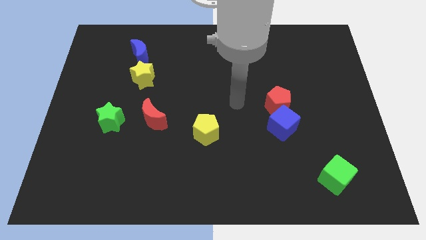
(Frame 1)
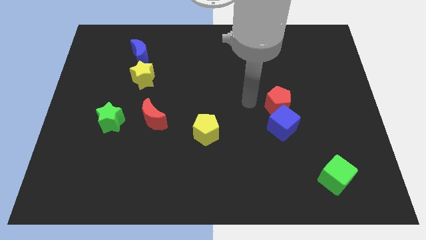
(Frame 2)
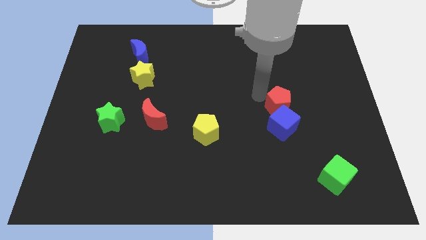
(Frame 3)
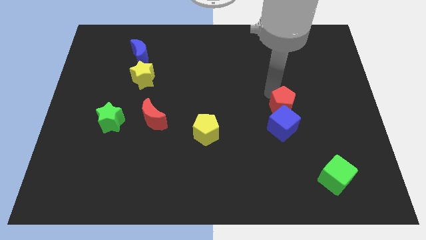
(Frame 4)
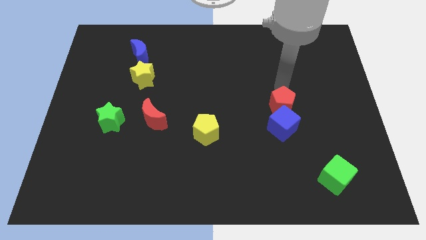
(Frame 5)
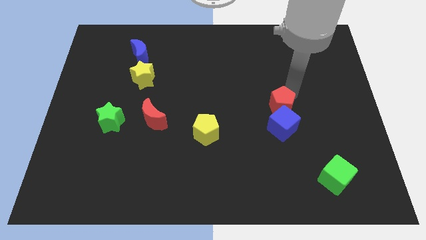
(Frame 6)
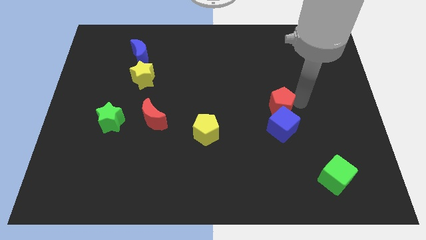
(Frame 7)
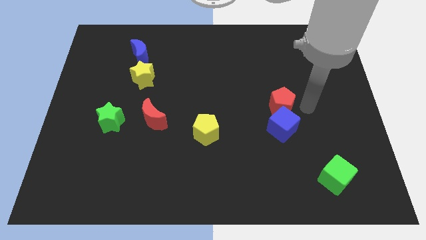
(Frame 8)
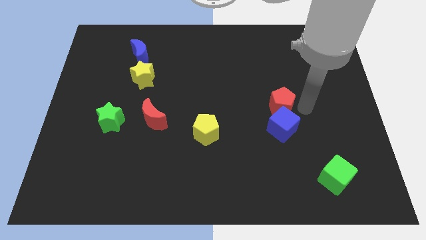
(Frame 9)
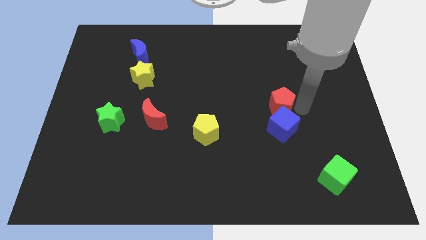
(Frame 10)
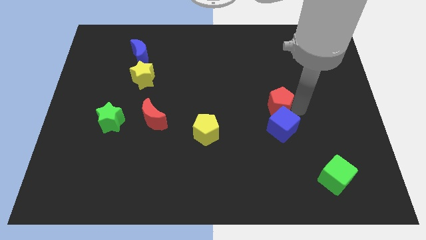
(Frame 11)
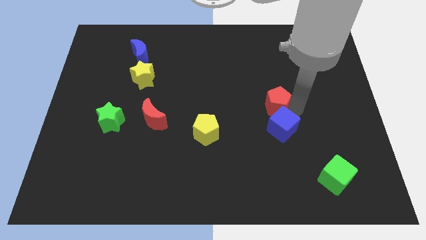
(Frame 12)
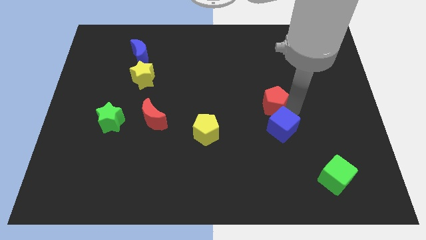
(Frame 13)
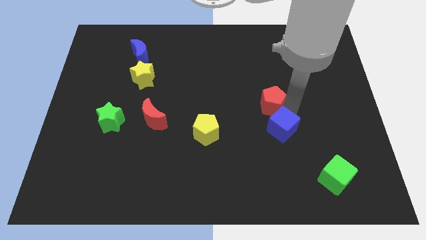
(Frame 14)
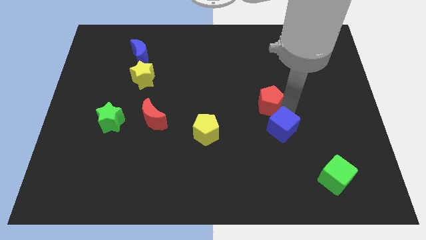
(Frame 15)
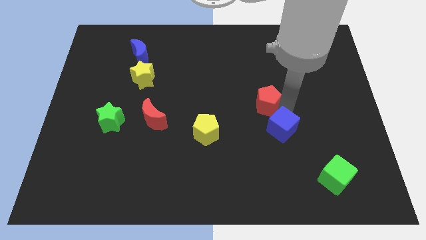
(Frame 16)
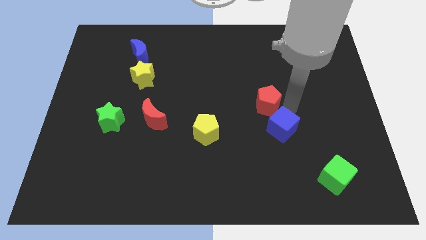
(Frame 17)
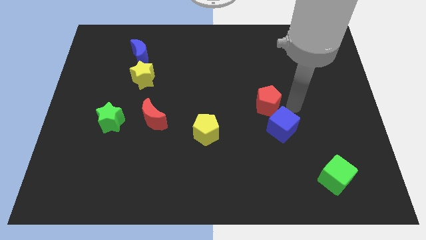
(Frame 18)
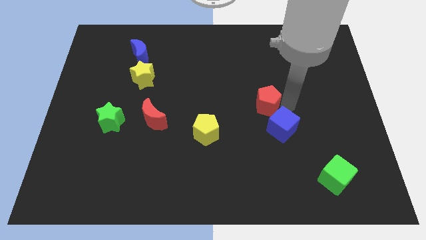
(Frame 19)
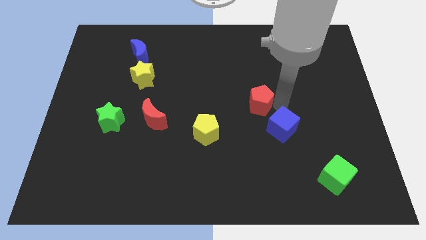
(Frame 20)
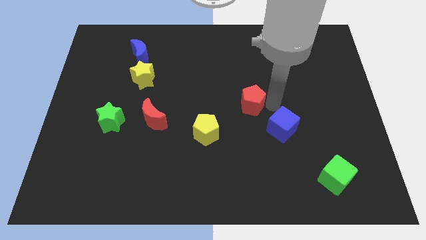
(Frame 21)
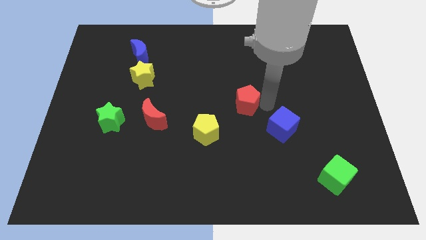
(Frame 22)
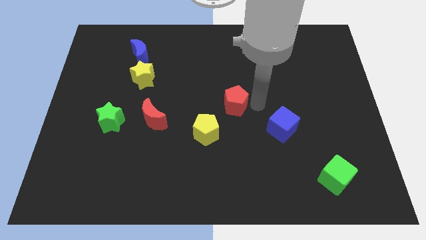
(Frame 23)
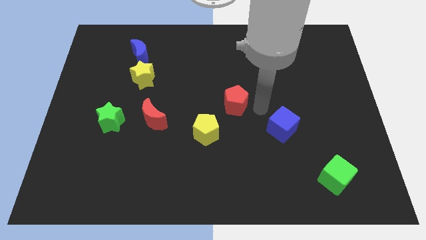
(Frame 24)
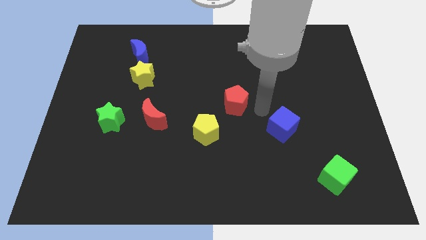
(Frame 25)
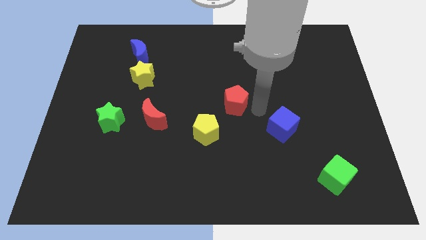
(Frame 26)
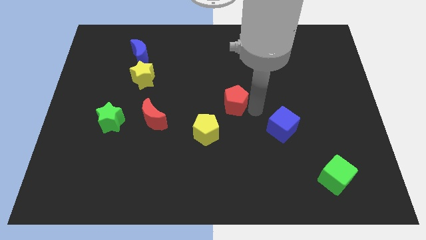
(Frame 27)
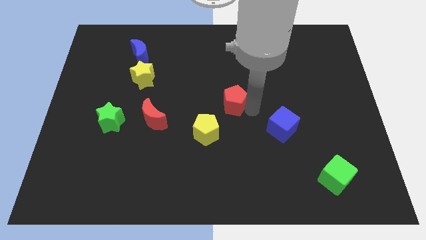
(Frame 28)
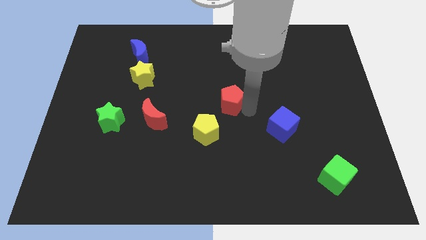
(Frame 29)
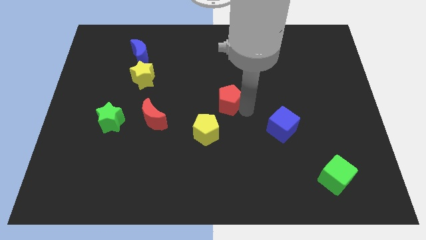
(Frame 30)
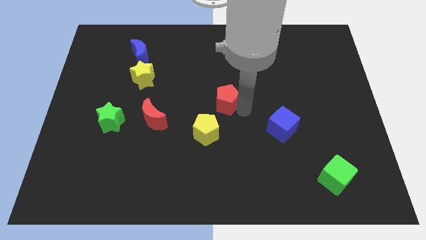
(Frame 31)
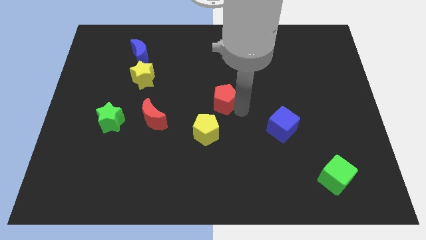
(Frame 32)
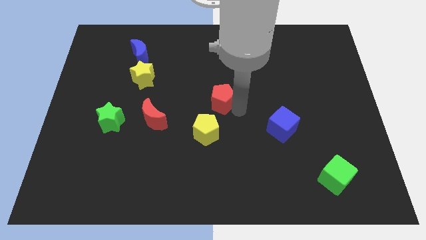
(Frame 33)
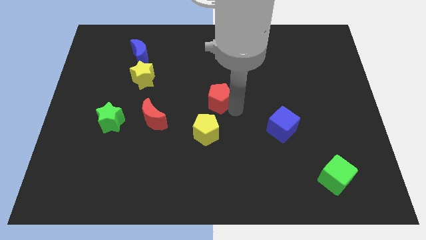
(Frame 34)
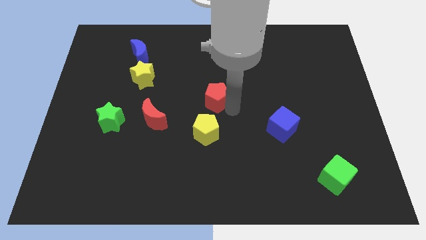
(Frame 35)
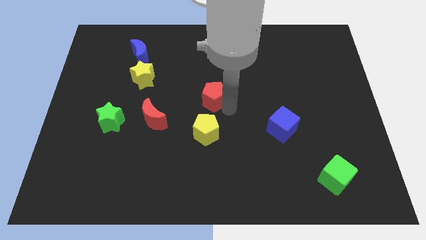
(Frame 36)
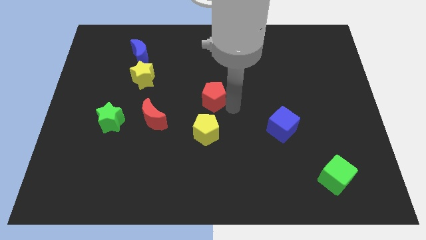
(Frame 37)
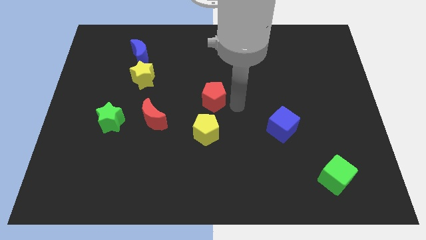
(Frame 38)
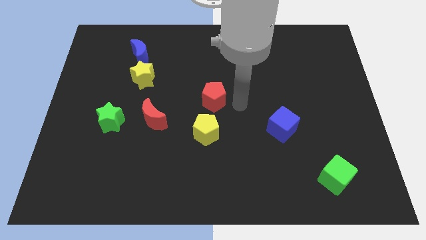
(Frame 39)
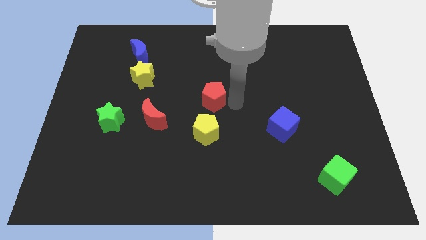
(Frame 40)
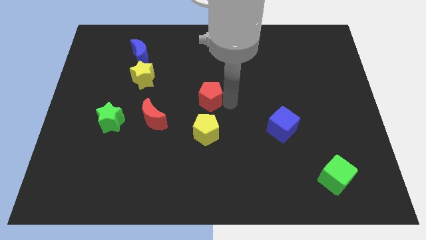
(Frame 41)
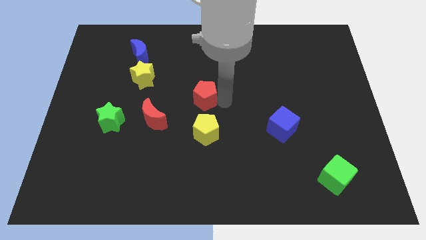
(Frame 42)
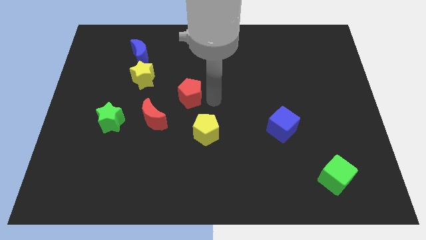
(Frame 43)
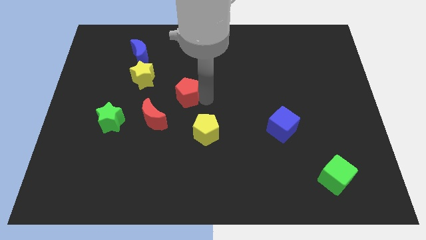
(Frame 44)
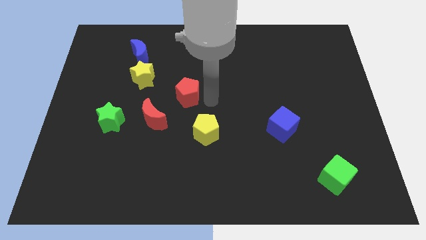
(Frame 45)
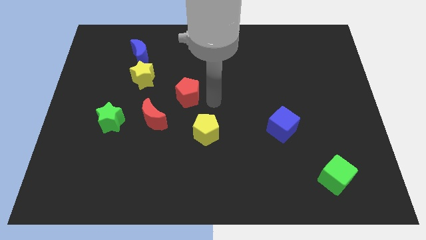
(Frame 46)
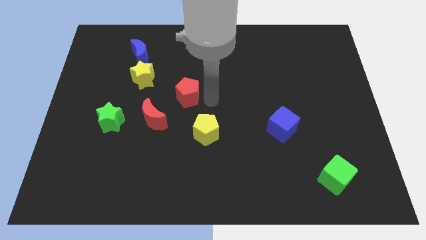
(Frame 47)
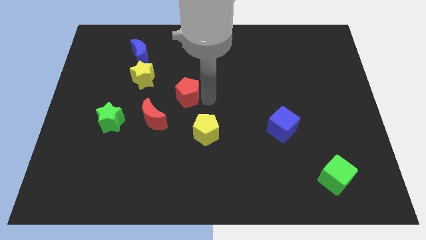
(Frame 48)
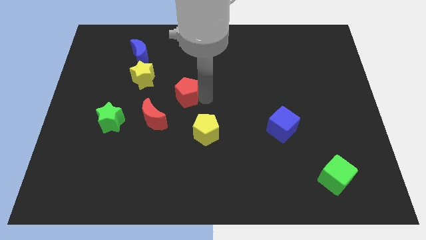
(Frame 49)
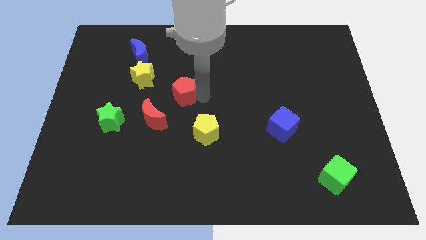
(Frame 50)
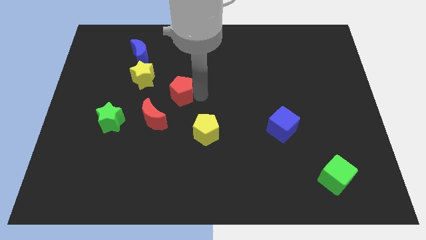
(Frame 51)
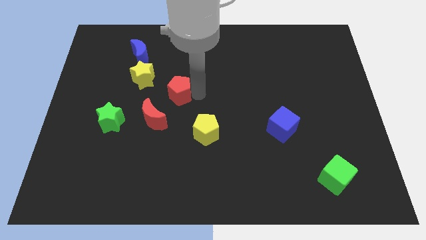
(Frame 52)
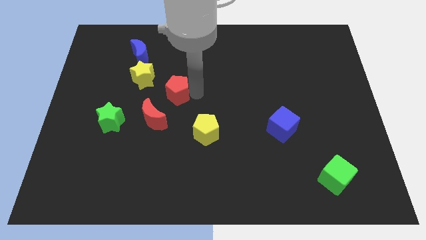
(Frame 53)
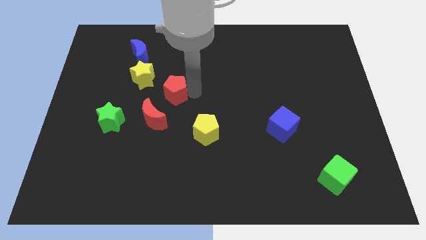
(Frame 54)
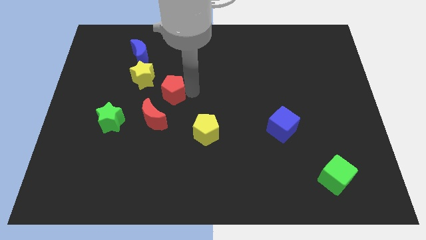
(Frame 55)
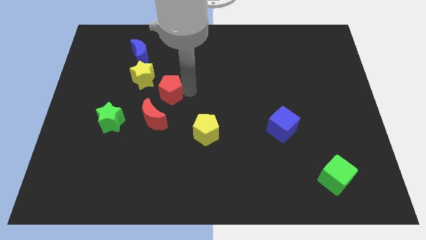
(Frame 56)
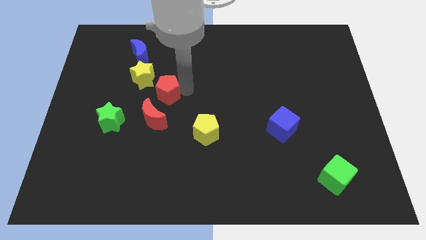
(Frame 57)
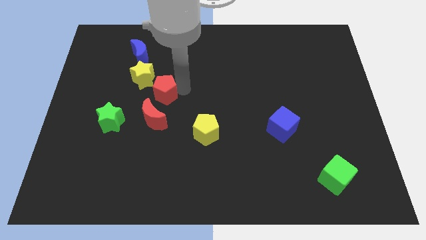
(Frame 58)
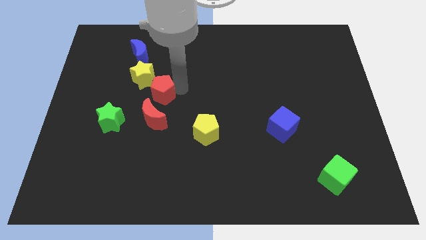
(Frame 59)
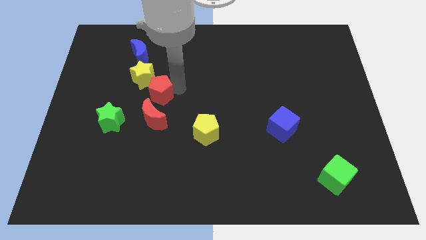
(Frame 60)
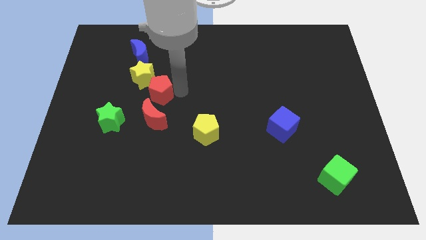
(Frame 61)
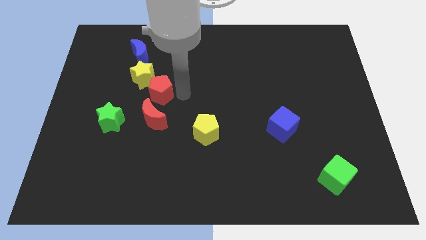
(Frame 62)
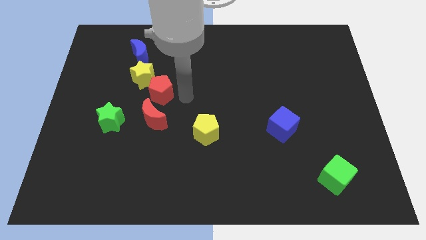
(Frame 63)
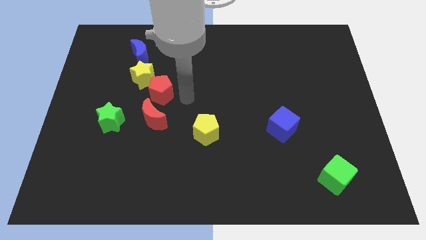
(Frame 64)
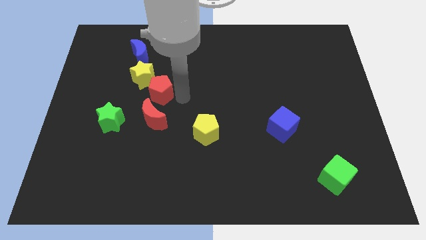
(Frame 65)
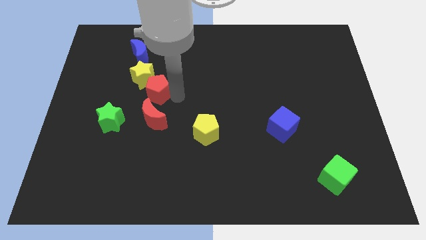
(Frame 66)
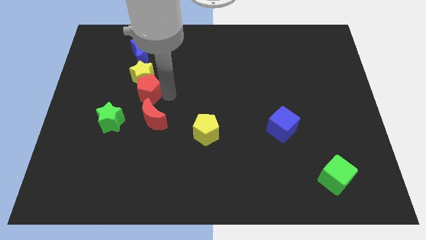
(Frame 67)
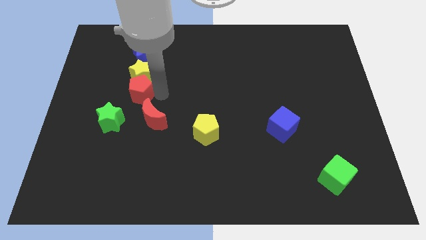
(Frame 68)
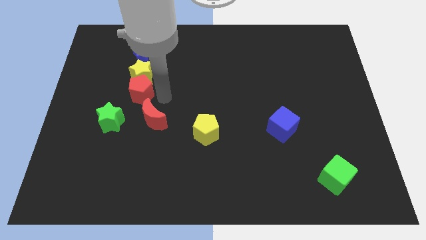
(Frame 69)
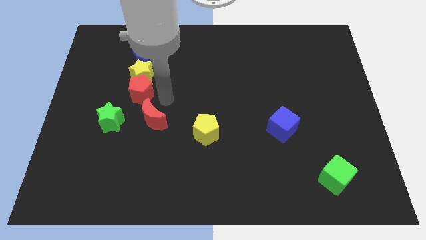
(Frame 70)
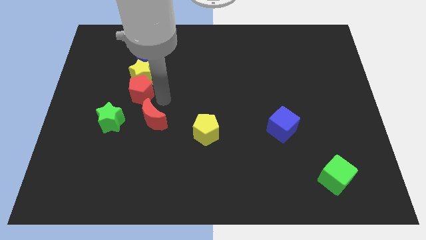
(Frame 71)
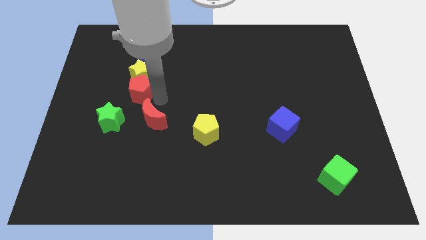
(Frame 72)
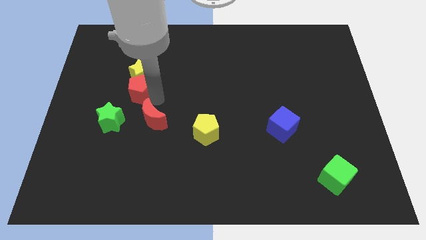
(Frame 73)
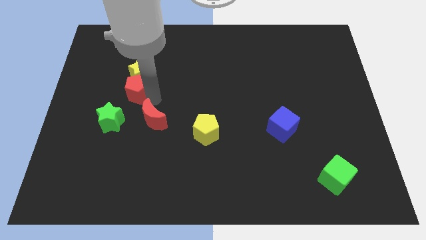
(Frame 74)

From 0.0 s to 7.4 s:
put the red pentagon above the green star
